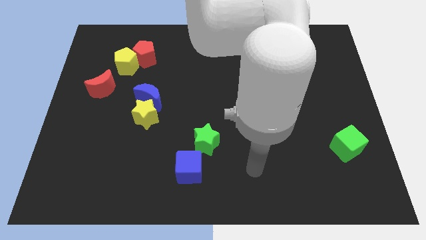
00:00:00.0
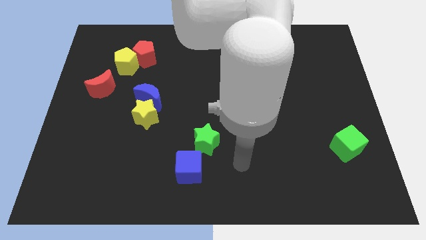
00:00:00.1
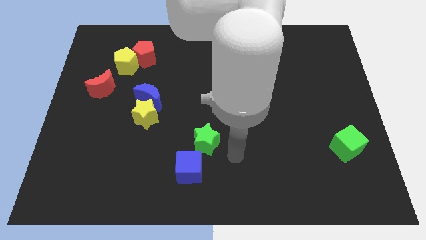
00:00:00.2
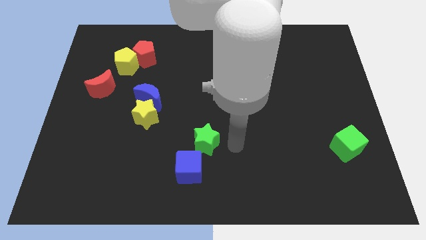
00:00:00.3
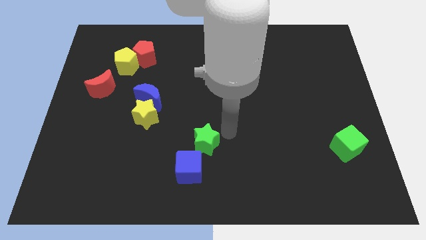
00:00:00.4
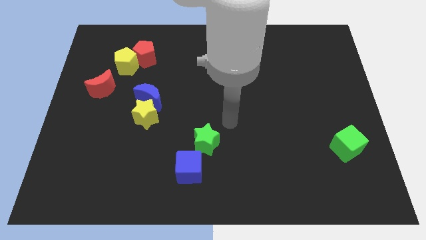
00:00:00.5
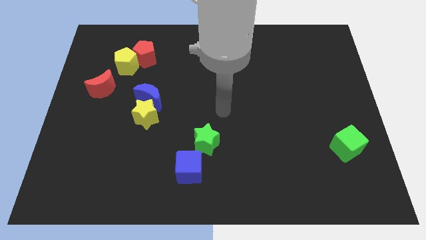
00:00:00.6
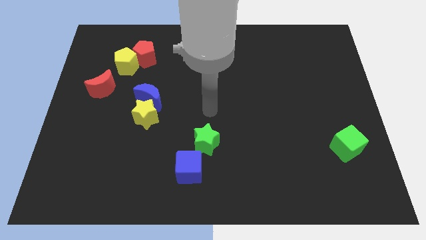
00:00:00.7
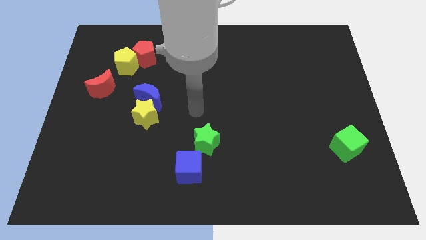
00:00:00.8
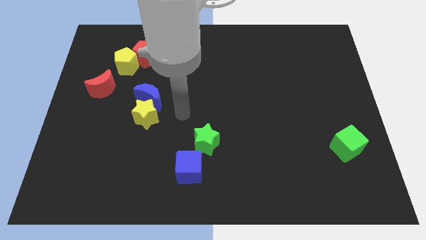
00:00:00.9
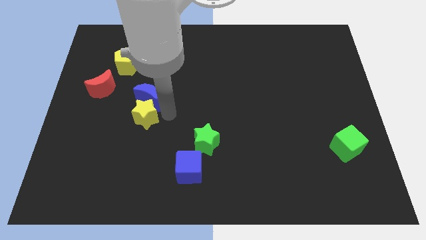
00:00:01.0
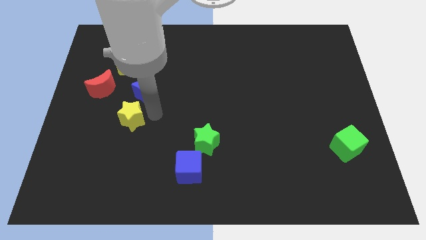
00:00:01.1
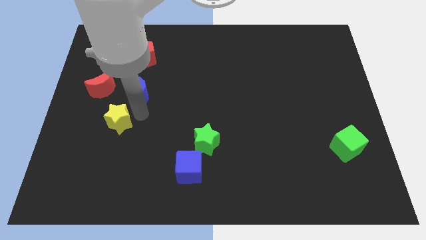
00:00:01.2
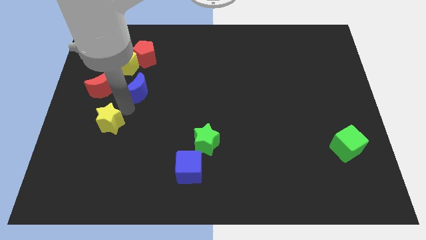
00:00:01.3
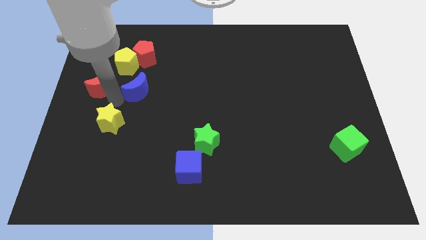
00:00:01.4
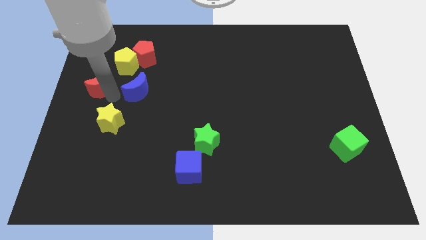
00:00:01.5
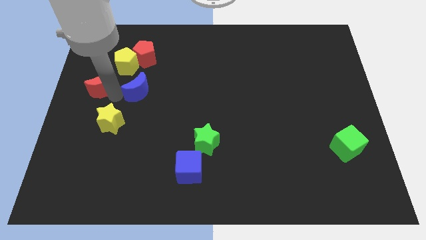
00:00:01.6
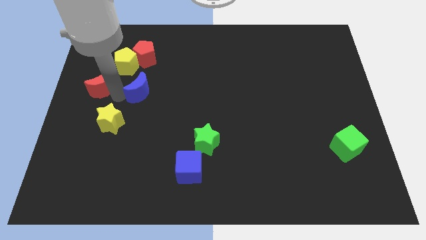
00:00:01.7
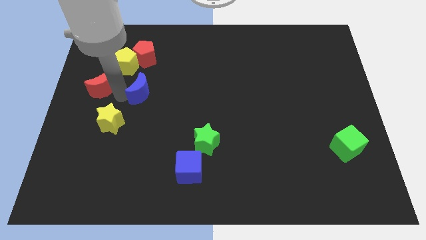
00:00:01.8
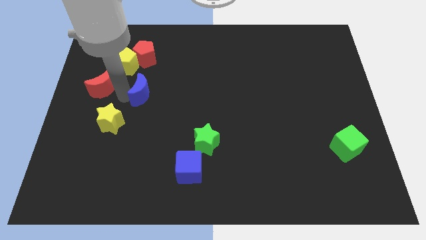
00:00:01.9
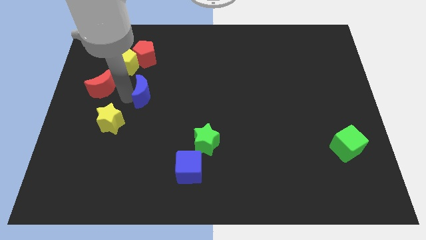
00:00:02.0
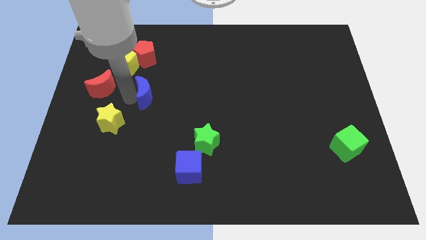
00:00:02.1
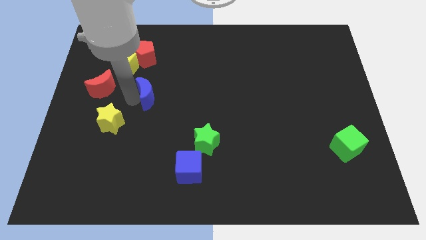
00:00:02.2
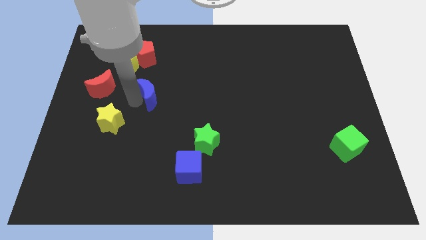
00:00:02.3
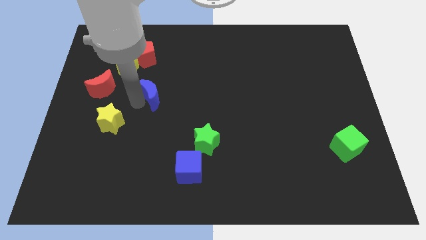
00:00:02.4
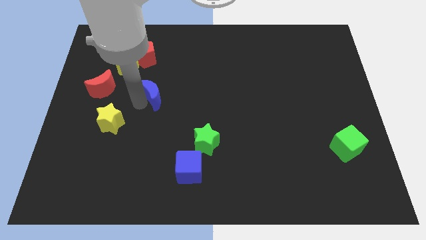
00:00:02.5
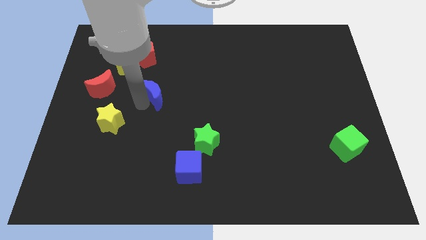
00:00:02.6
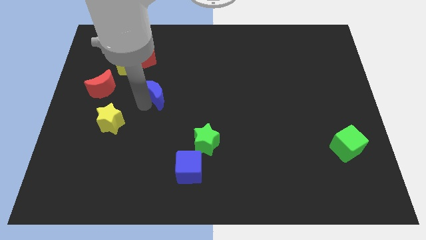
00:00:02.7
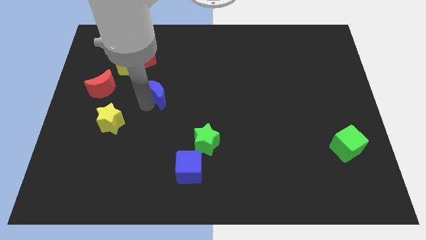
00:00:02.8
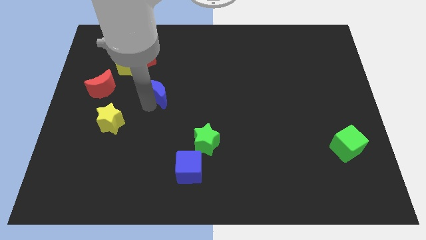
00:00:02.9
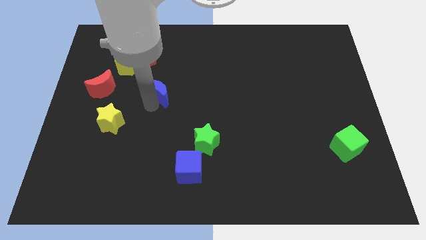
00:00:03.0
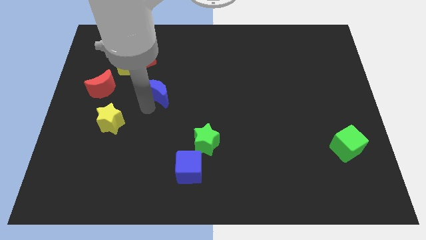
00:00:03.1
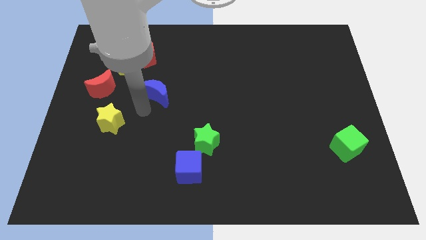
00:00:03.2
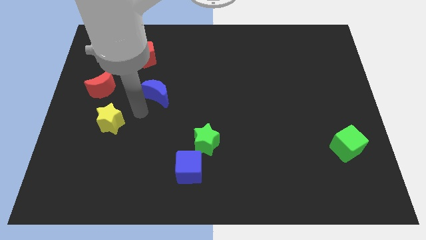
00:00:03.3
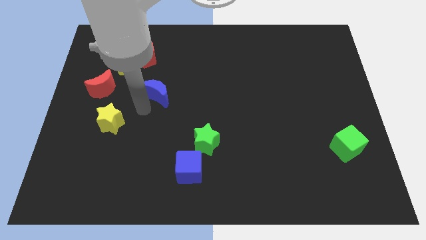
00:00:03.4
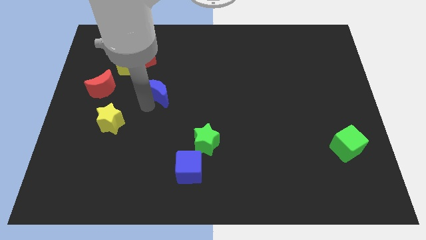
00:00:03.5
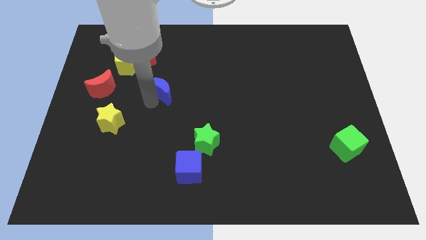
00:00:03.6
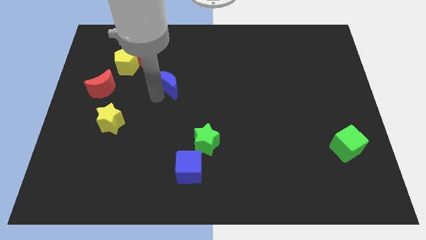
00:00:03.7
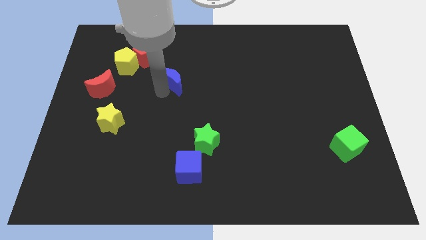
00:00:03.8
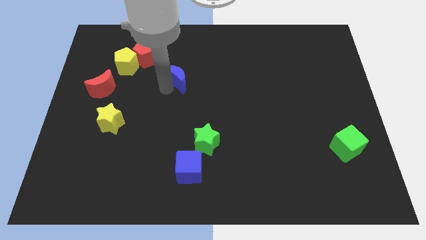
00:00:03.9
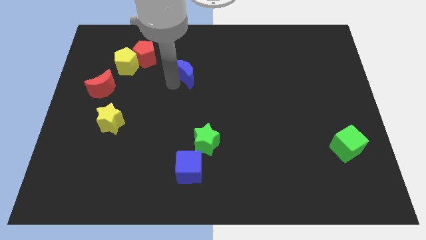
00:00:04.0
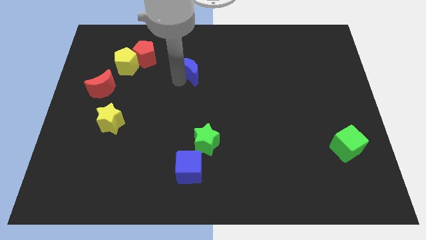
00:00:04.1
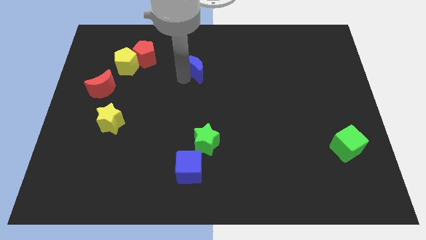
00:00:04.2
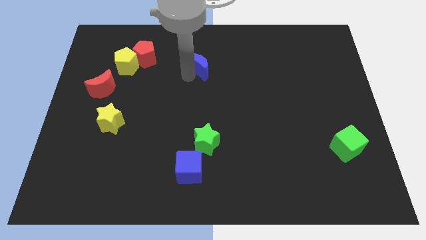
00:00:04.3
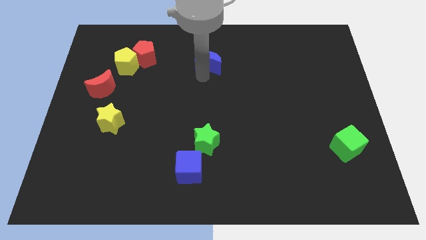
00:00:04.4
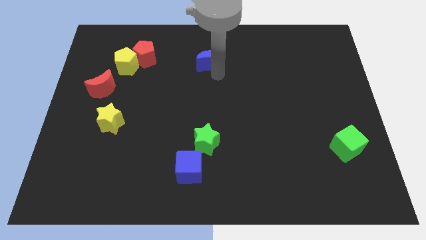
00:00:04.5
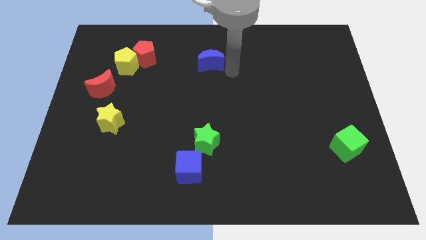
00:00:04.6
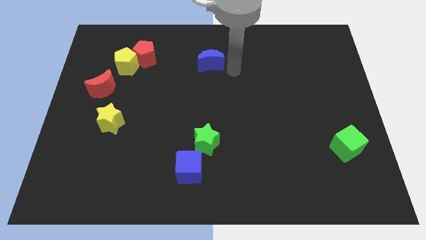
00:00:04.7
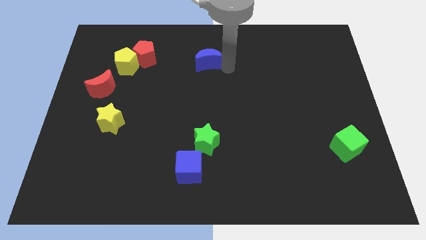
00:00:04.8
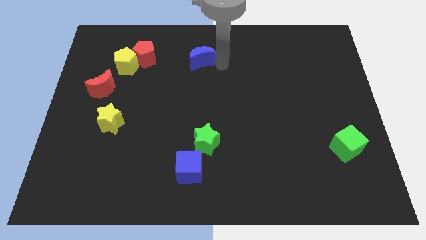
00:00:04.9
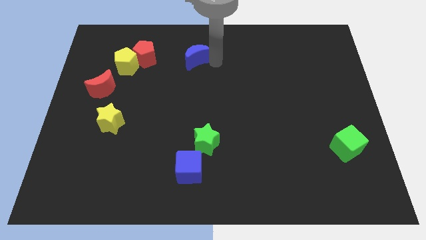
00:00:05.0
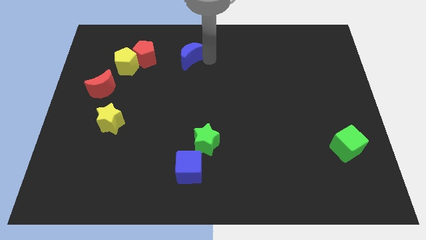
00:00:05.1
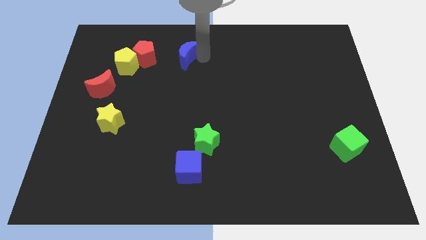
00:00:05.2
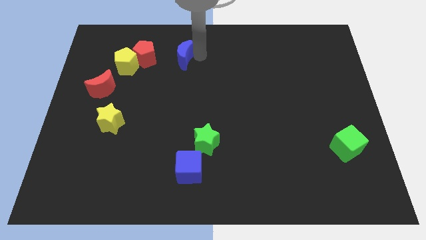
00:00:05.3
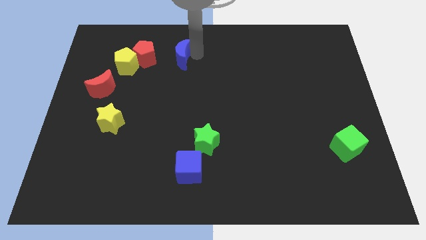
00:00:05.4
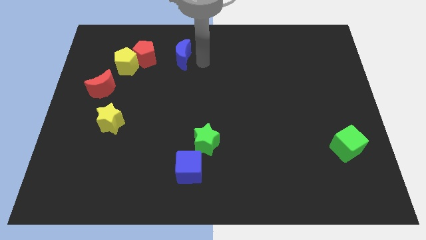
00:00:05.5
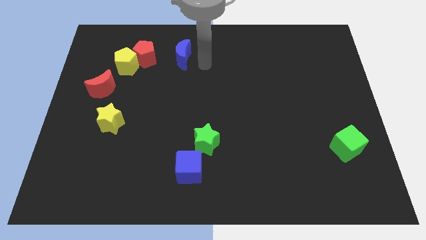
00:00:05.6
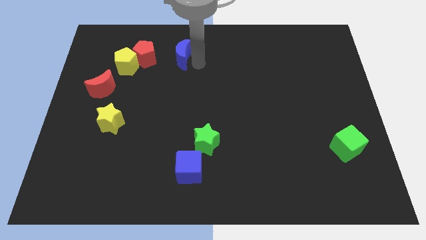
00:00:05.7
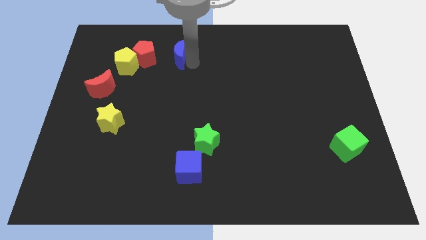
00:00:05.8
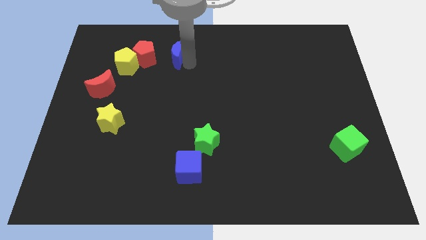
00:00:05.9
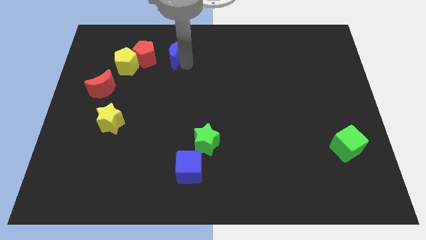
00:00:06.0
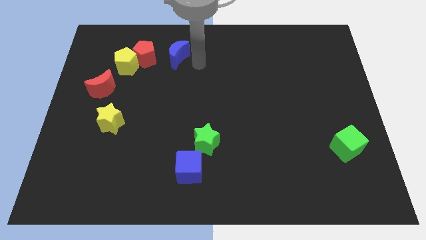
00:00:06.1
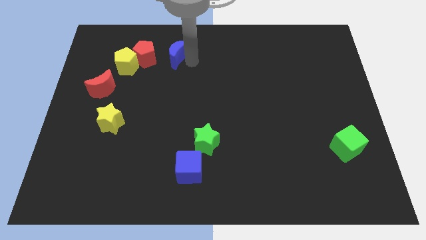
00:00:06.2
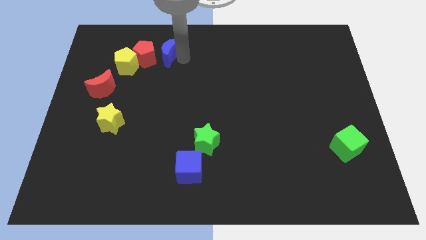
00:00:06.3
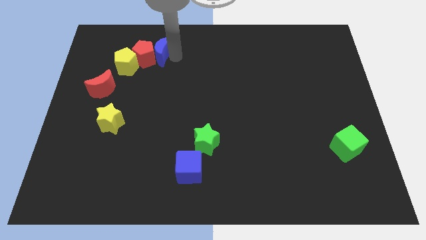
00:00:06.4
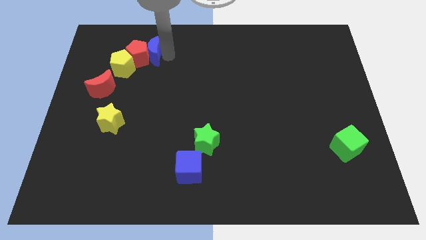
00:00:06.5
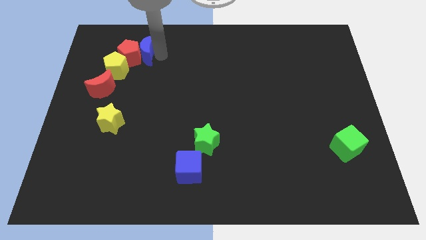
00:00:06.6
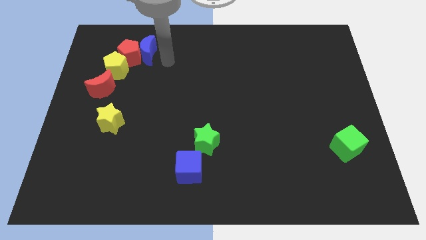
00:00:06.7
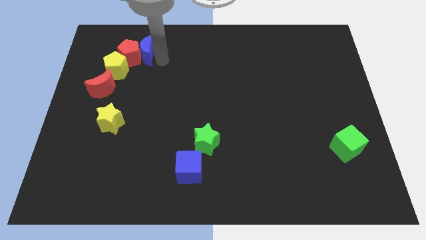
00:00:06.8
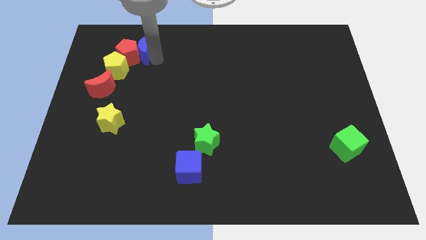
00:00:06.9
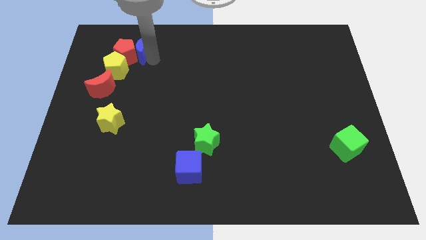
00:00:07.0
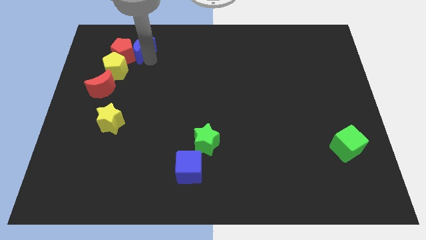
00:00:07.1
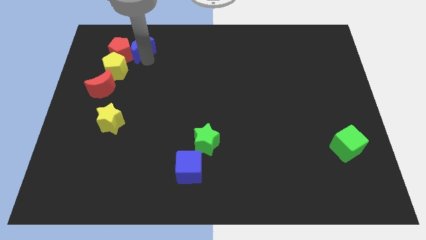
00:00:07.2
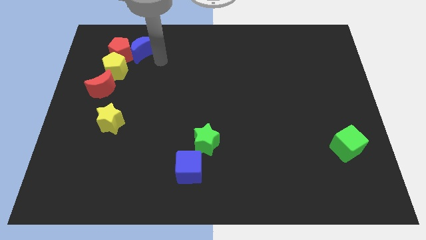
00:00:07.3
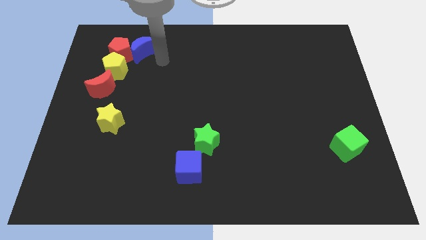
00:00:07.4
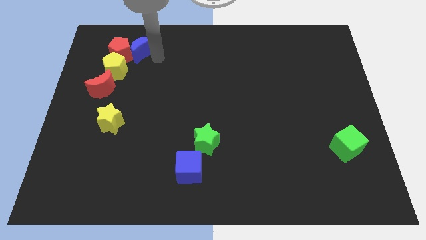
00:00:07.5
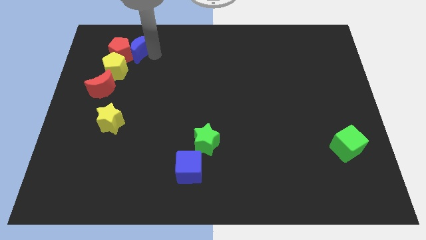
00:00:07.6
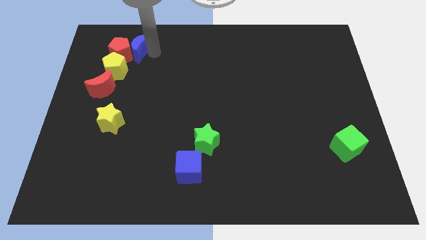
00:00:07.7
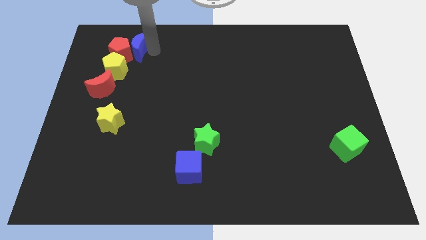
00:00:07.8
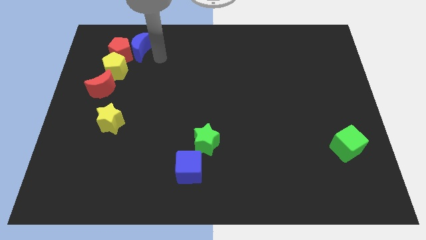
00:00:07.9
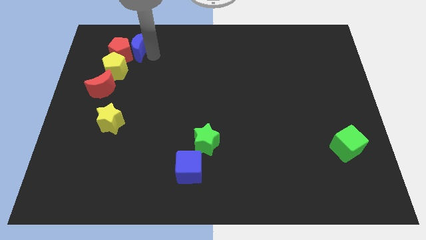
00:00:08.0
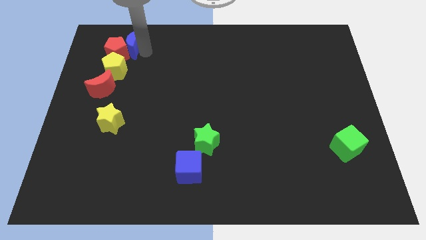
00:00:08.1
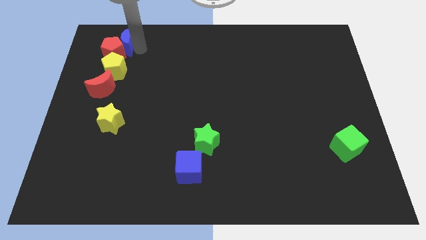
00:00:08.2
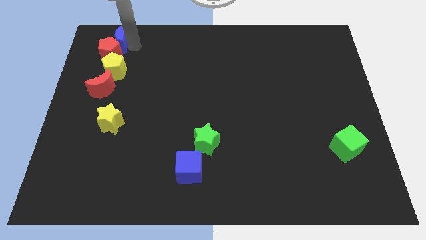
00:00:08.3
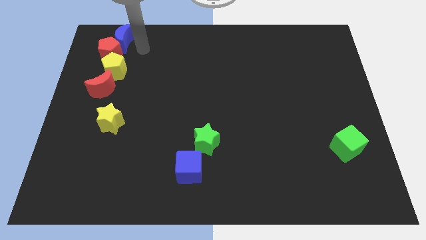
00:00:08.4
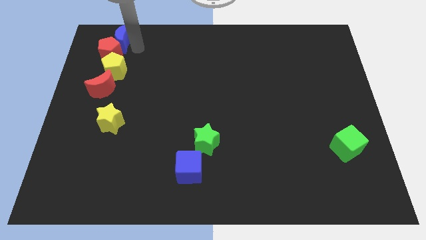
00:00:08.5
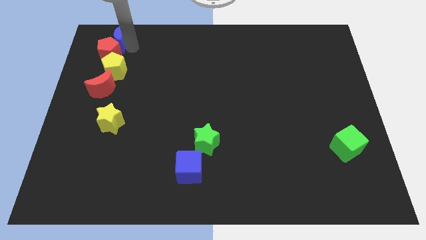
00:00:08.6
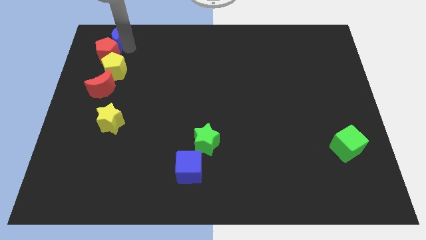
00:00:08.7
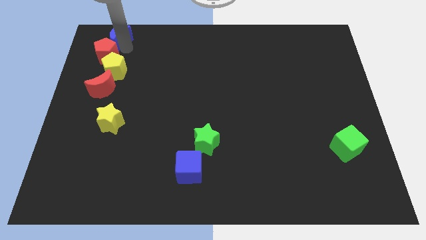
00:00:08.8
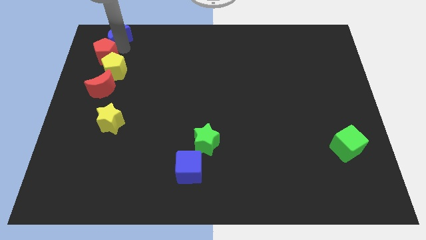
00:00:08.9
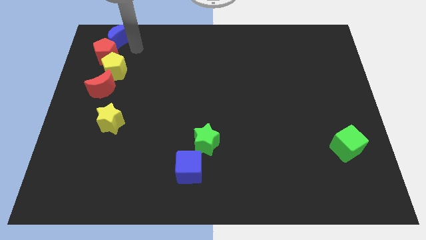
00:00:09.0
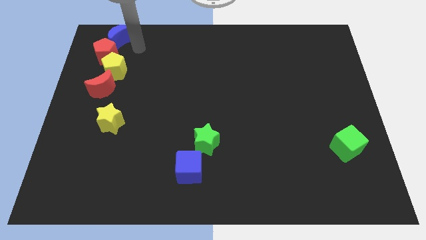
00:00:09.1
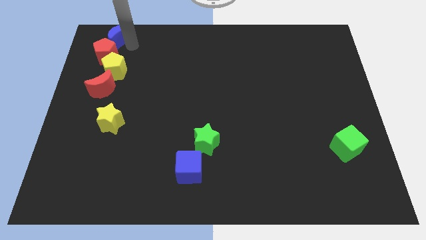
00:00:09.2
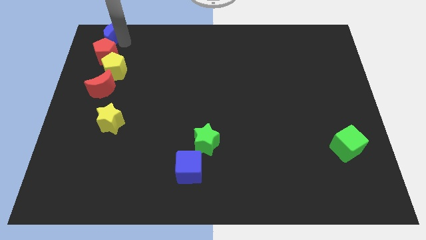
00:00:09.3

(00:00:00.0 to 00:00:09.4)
slide the blue moon to the top left corner
